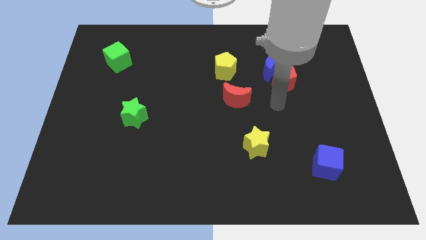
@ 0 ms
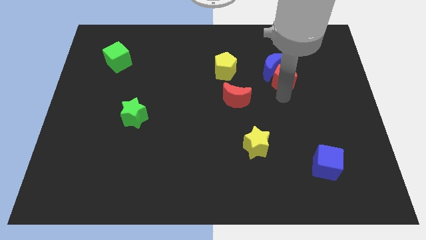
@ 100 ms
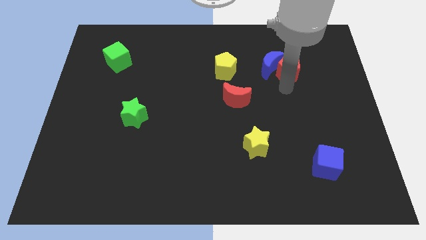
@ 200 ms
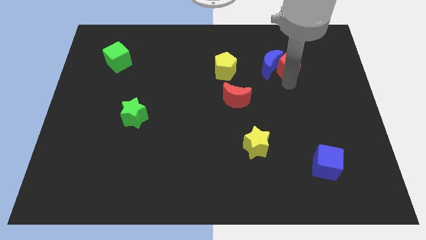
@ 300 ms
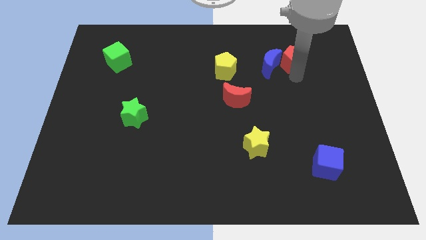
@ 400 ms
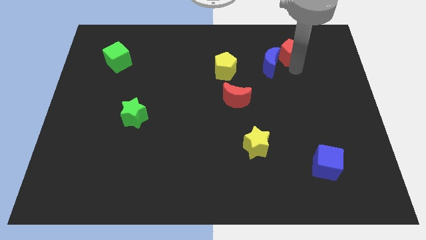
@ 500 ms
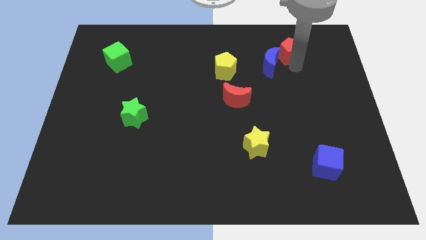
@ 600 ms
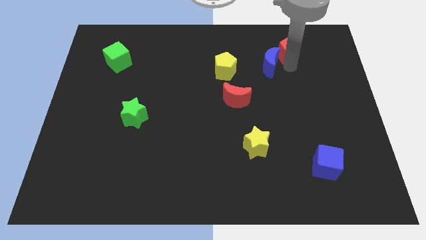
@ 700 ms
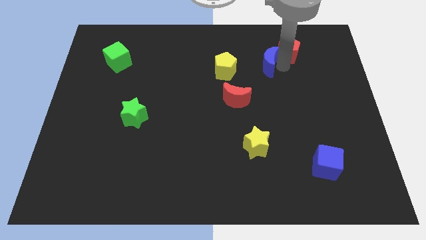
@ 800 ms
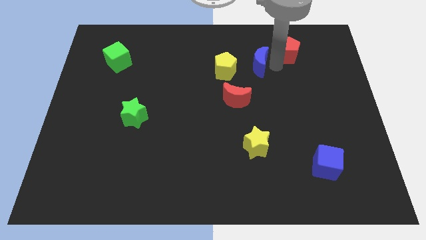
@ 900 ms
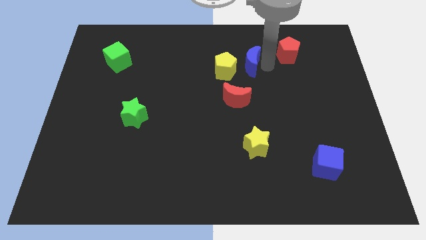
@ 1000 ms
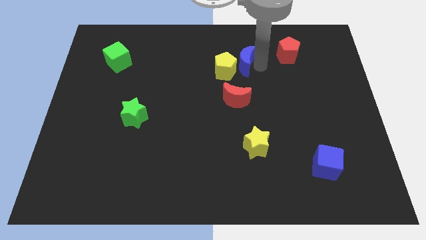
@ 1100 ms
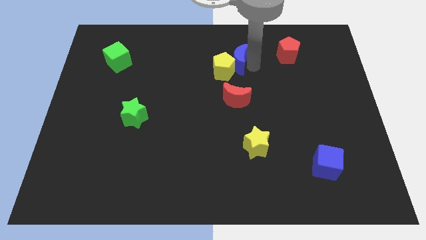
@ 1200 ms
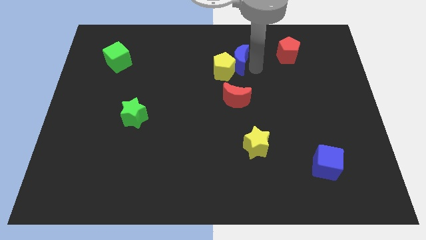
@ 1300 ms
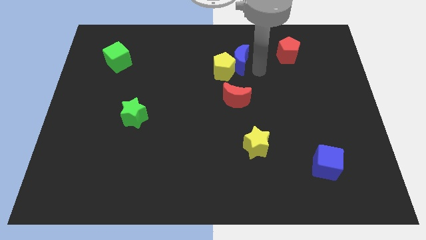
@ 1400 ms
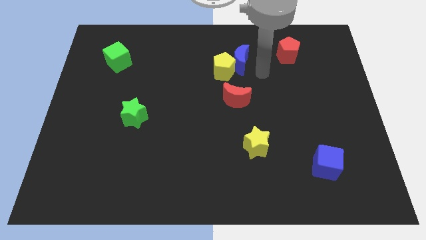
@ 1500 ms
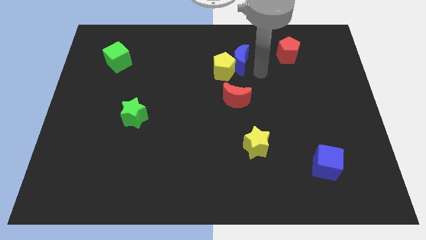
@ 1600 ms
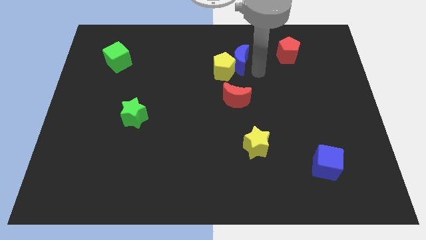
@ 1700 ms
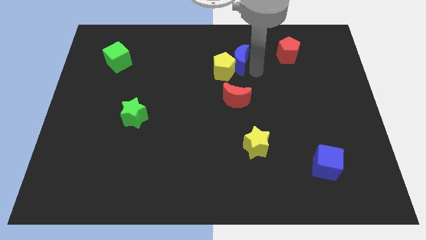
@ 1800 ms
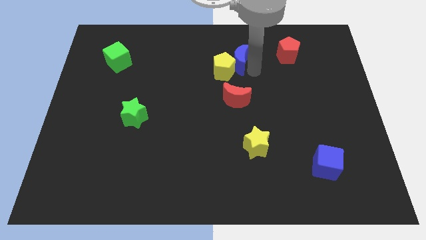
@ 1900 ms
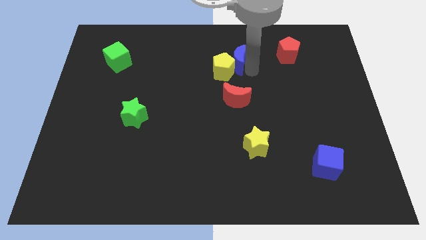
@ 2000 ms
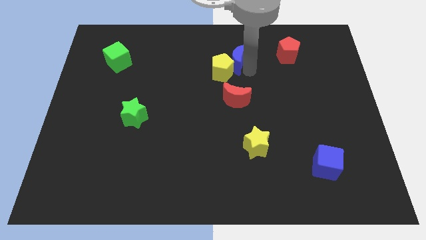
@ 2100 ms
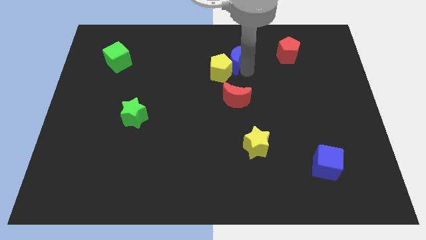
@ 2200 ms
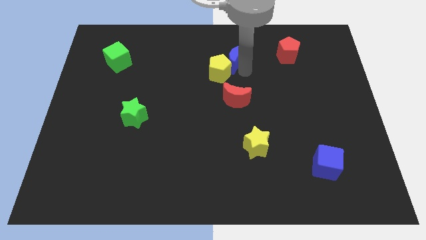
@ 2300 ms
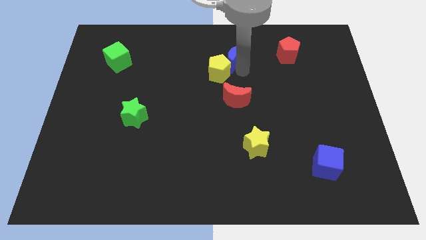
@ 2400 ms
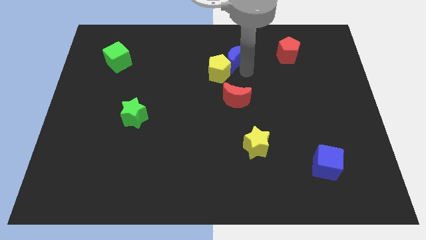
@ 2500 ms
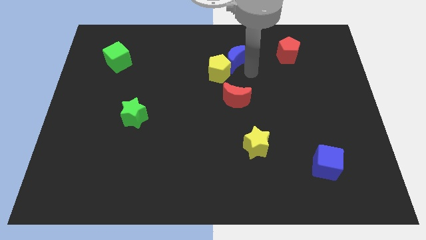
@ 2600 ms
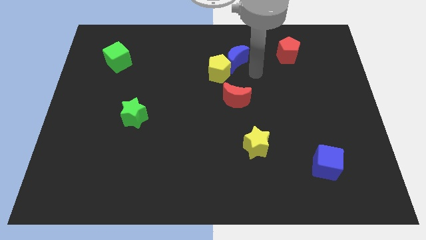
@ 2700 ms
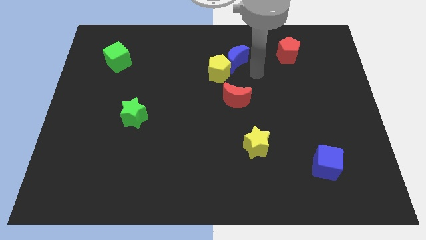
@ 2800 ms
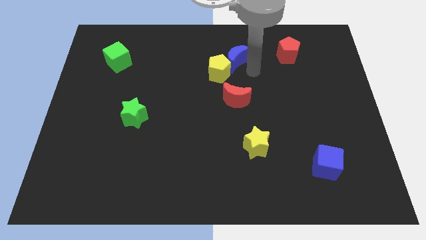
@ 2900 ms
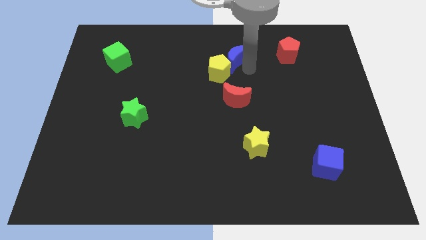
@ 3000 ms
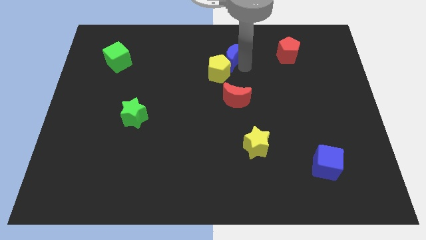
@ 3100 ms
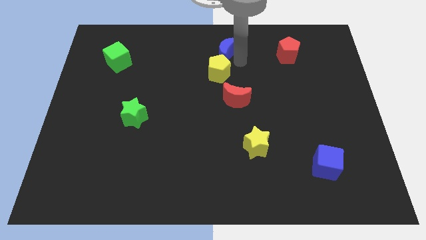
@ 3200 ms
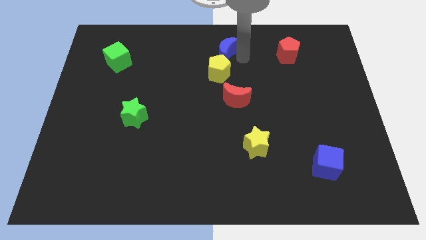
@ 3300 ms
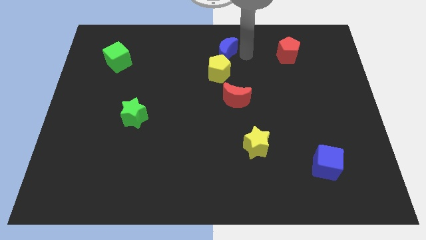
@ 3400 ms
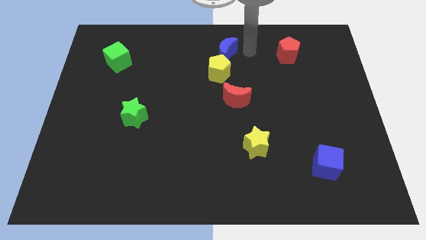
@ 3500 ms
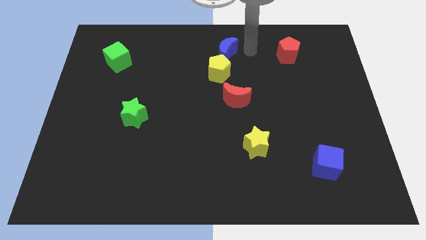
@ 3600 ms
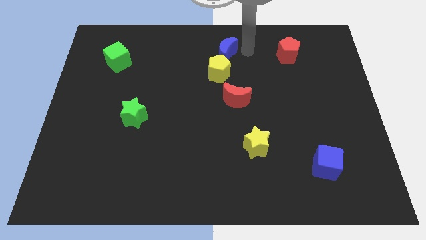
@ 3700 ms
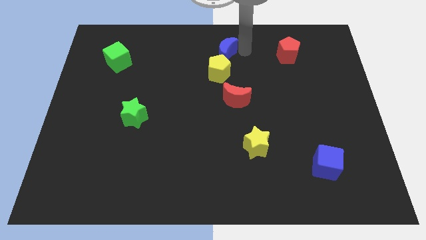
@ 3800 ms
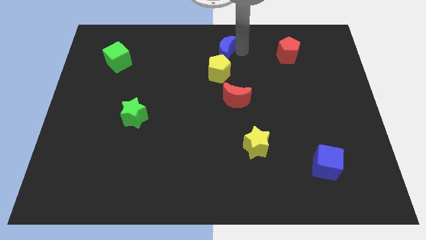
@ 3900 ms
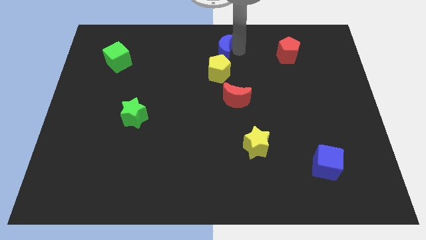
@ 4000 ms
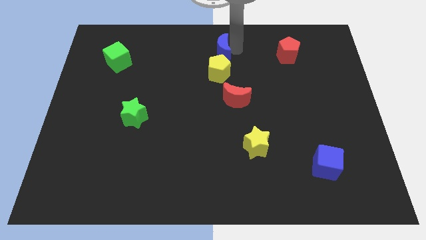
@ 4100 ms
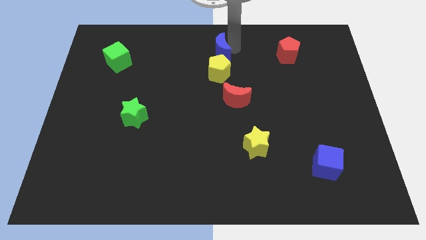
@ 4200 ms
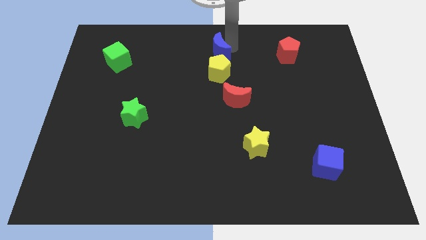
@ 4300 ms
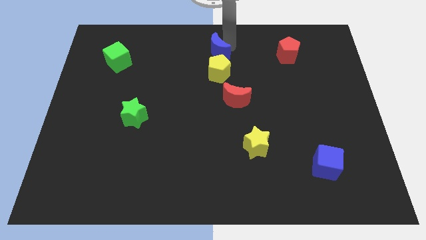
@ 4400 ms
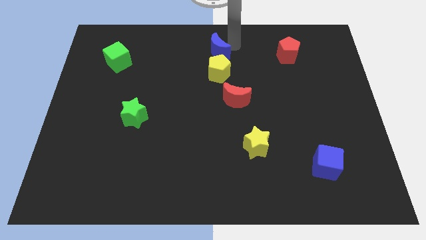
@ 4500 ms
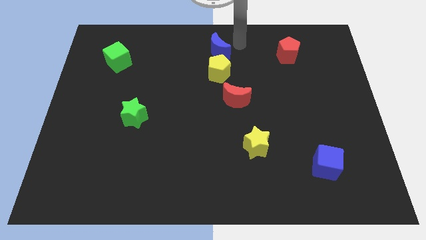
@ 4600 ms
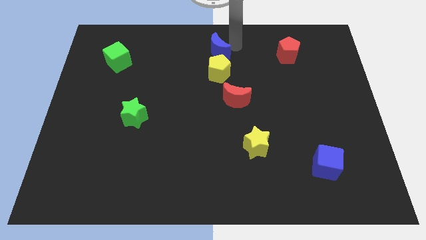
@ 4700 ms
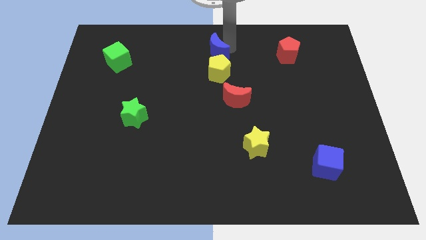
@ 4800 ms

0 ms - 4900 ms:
move the blue moon to the top left side of the yellow pentagon

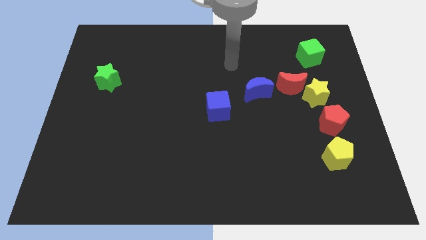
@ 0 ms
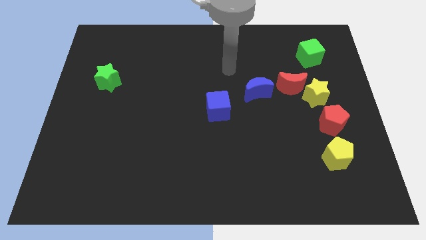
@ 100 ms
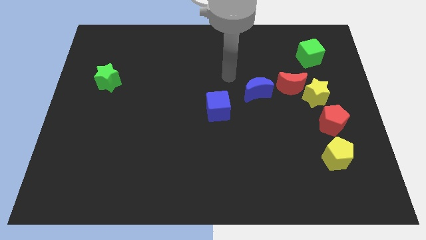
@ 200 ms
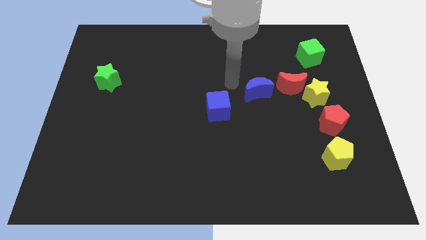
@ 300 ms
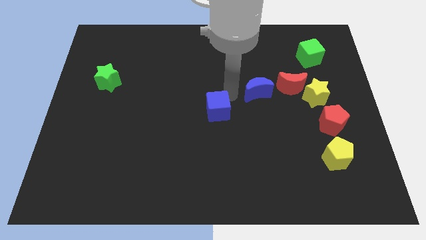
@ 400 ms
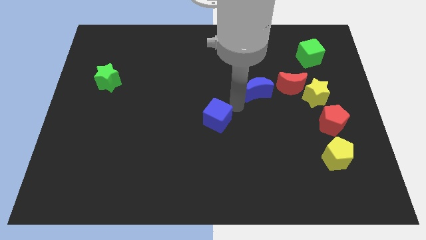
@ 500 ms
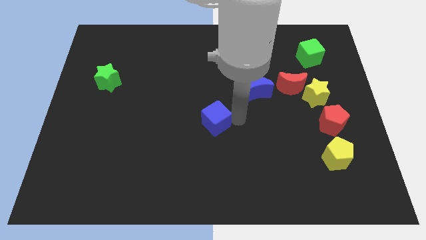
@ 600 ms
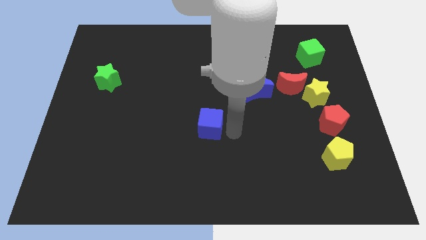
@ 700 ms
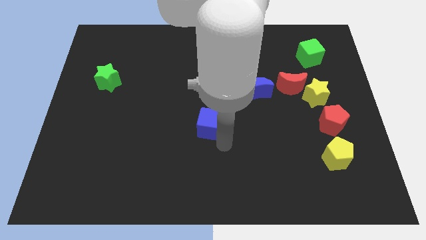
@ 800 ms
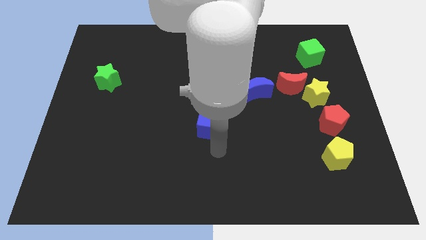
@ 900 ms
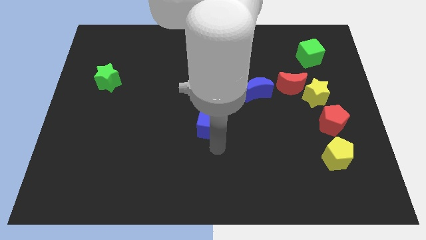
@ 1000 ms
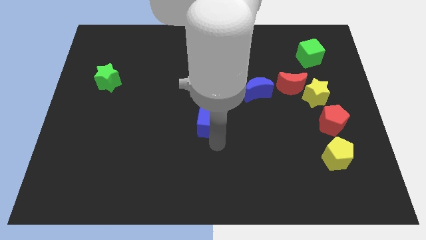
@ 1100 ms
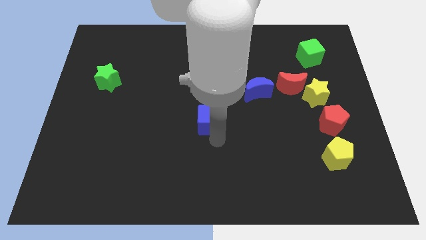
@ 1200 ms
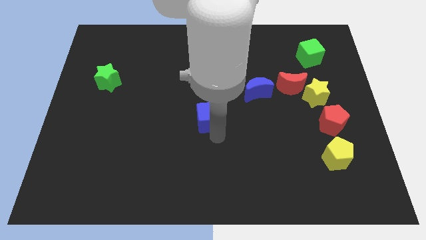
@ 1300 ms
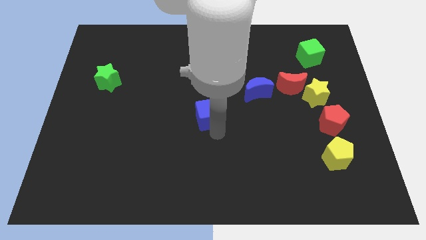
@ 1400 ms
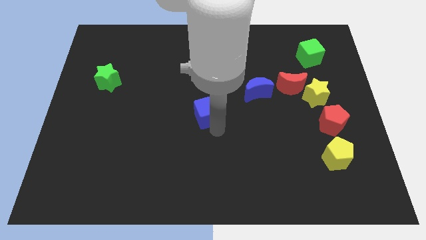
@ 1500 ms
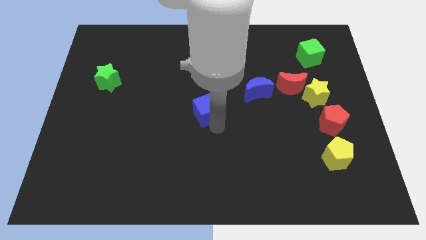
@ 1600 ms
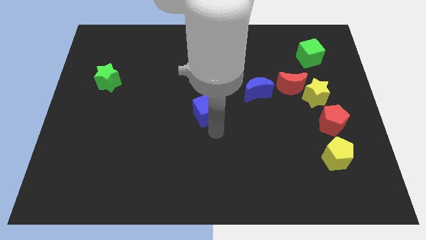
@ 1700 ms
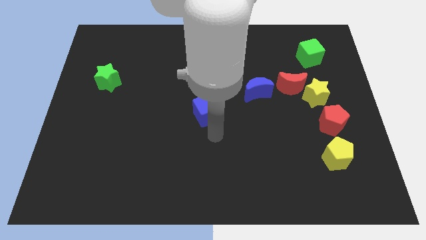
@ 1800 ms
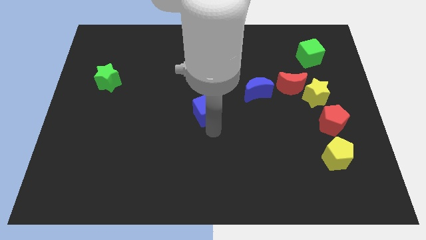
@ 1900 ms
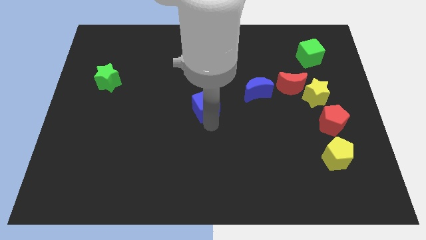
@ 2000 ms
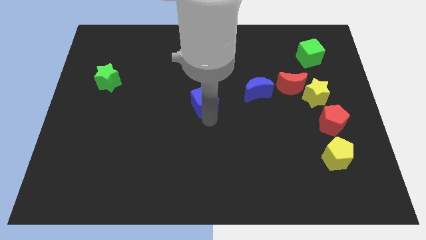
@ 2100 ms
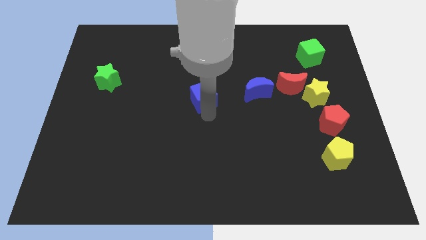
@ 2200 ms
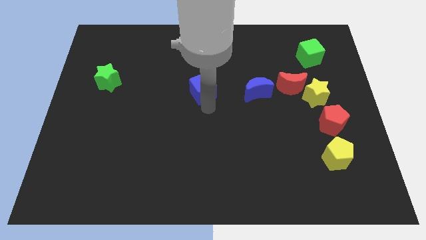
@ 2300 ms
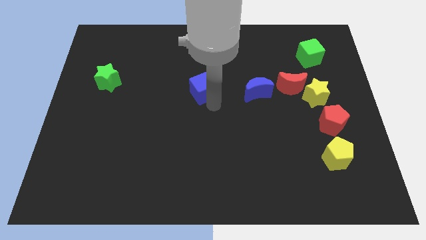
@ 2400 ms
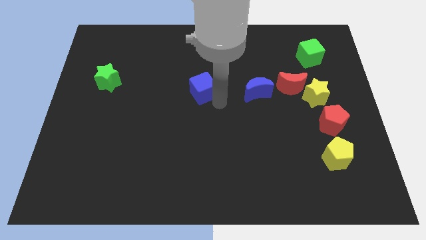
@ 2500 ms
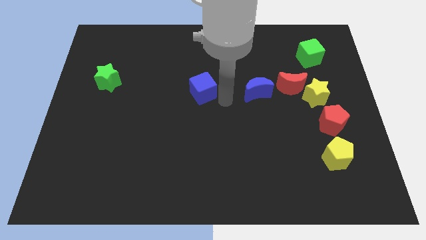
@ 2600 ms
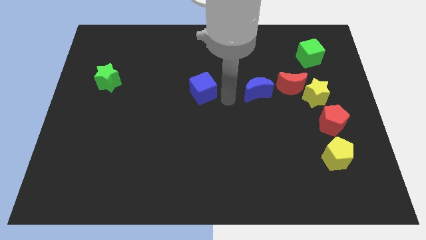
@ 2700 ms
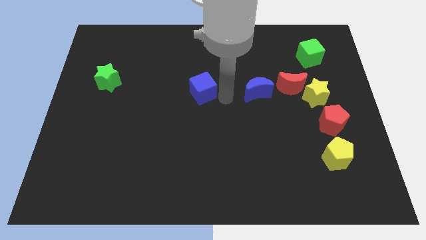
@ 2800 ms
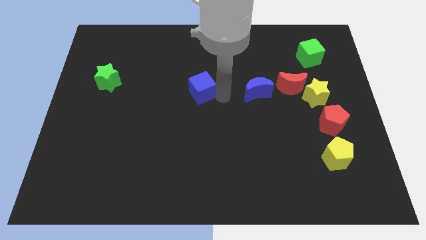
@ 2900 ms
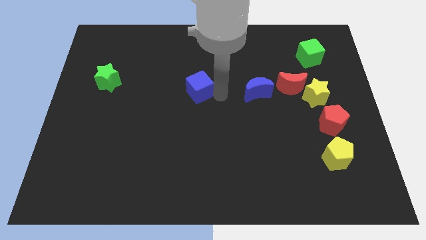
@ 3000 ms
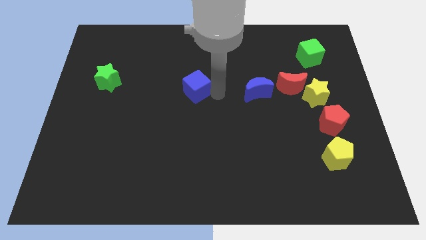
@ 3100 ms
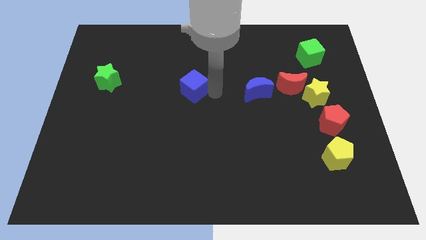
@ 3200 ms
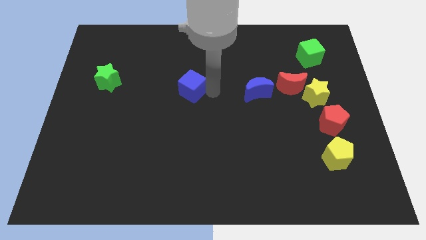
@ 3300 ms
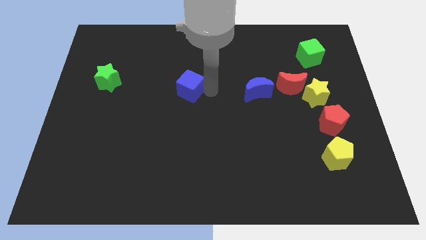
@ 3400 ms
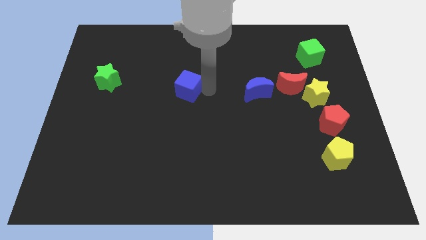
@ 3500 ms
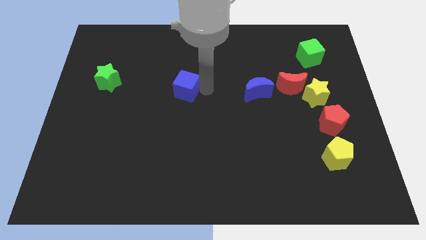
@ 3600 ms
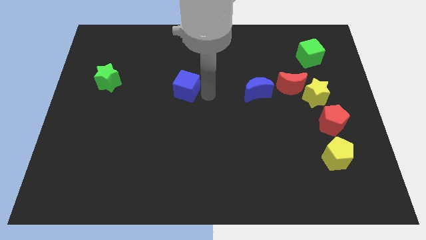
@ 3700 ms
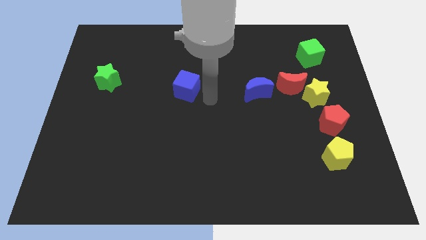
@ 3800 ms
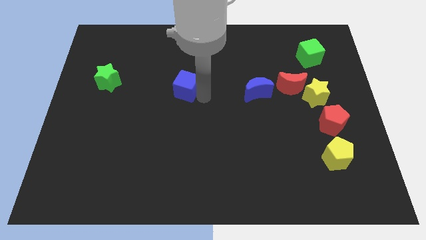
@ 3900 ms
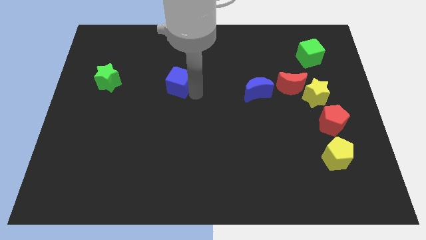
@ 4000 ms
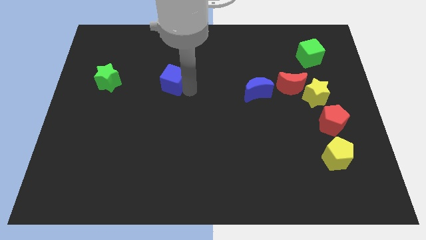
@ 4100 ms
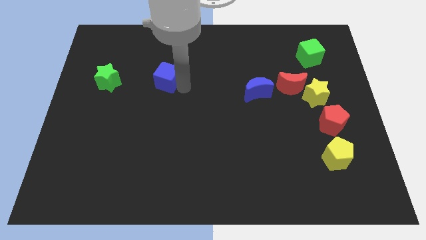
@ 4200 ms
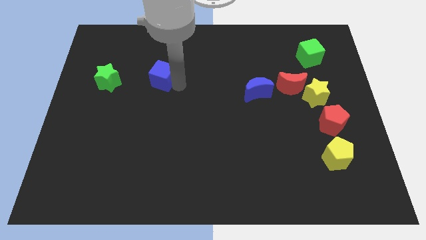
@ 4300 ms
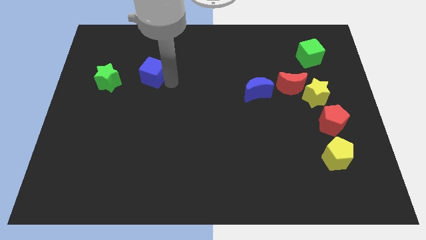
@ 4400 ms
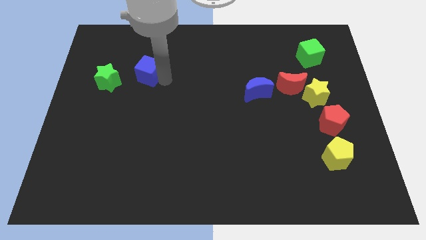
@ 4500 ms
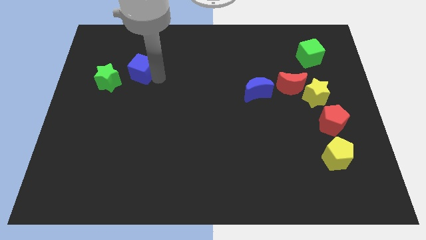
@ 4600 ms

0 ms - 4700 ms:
move the blue cube to the top right of the green star
